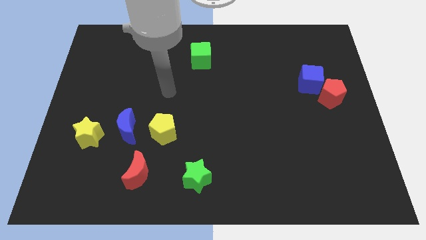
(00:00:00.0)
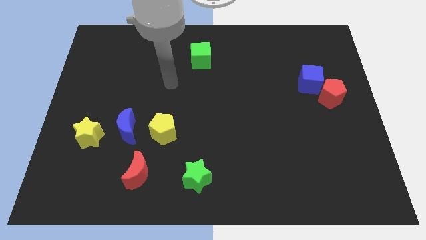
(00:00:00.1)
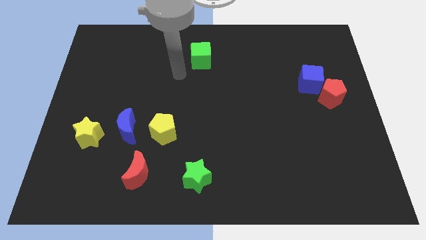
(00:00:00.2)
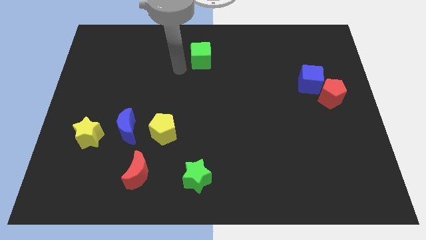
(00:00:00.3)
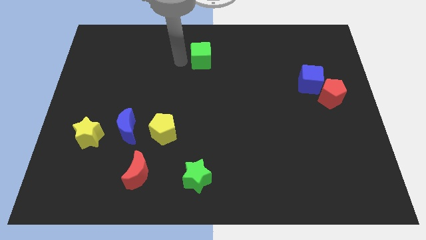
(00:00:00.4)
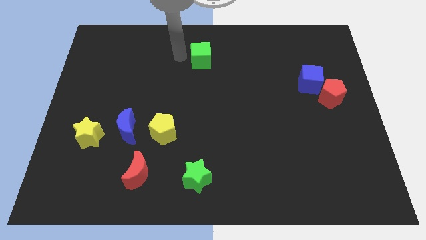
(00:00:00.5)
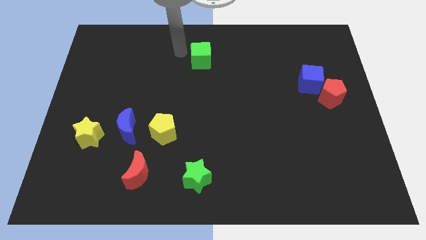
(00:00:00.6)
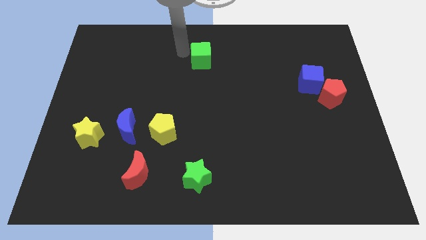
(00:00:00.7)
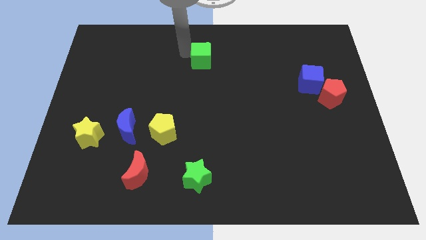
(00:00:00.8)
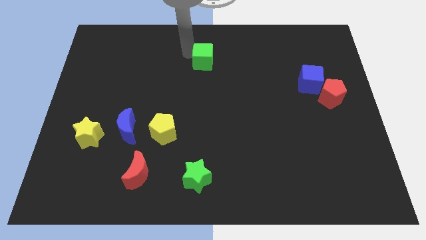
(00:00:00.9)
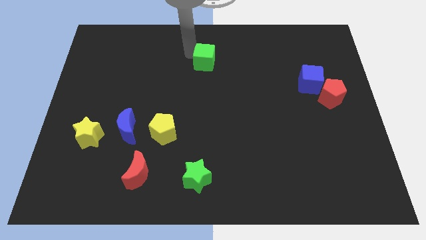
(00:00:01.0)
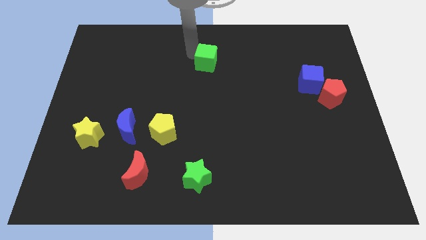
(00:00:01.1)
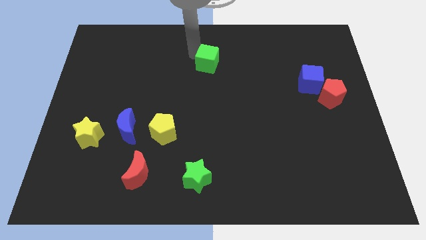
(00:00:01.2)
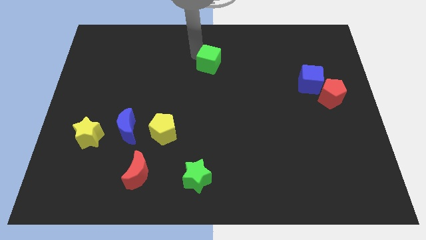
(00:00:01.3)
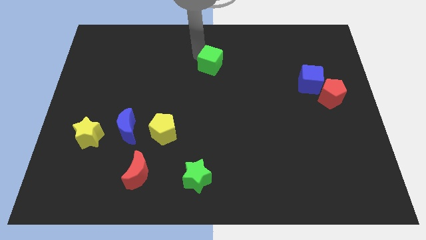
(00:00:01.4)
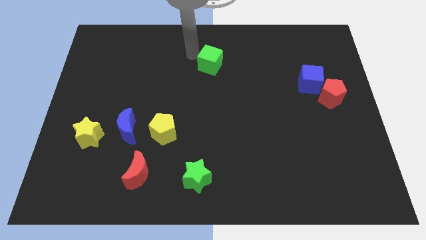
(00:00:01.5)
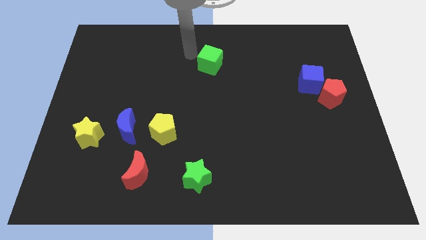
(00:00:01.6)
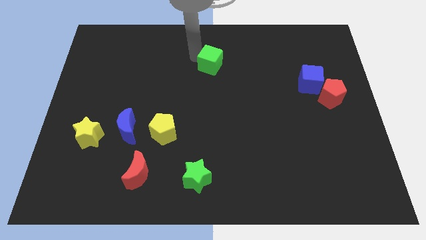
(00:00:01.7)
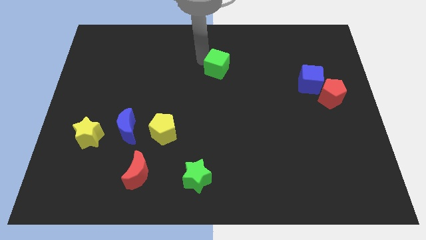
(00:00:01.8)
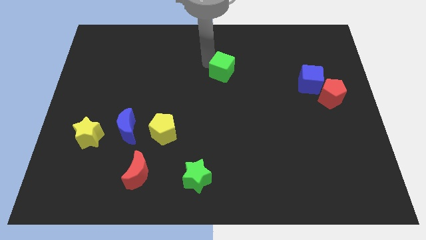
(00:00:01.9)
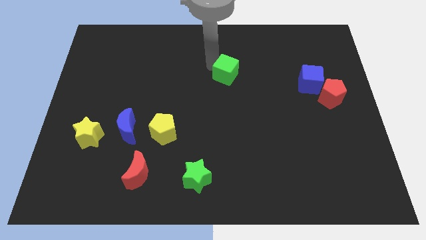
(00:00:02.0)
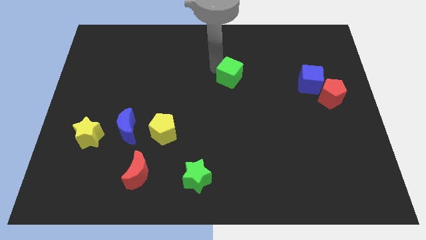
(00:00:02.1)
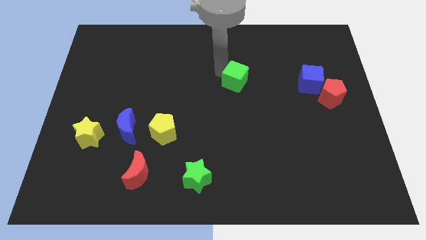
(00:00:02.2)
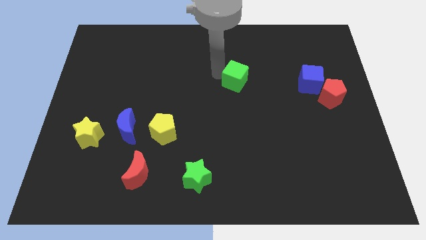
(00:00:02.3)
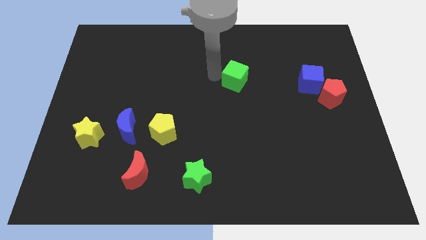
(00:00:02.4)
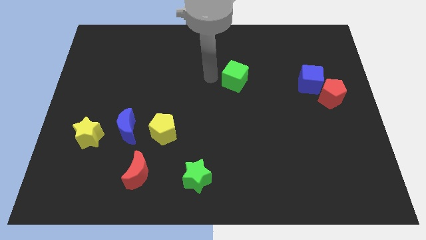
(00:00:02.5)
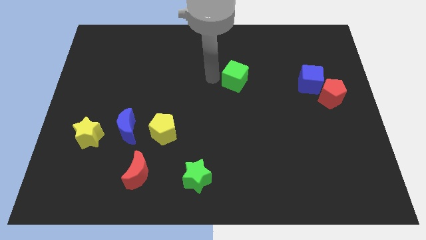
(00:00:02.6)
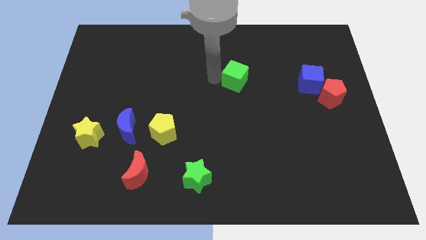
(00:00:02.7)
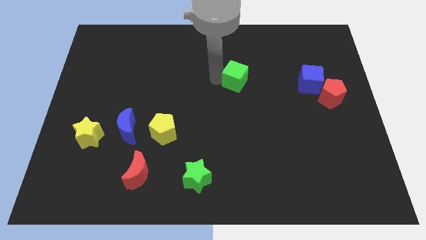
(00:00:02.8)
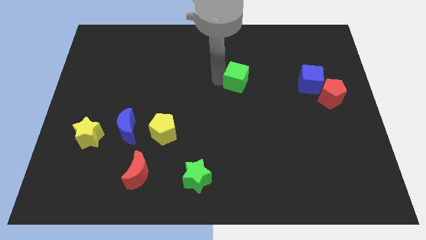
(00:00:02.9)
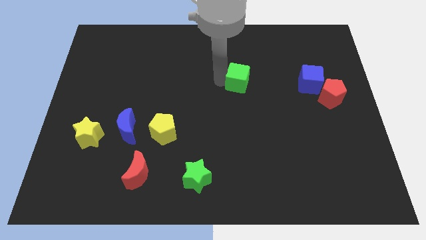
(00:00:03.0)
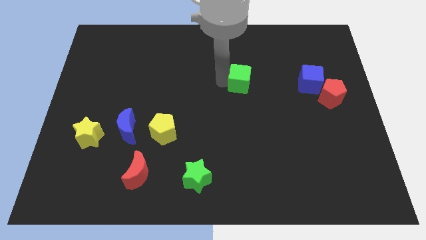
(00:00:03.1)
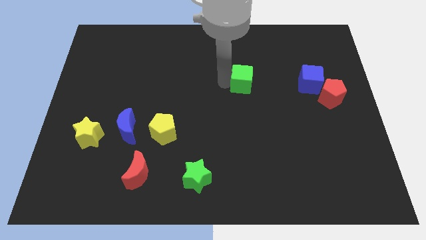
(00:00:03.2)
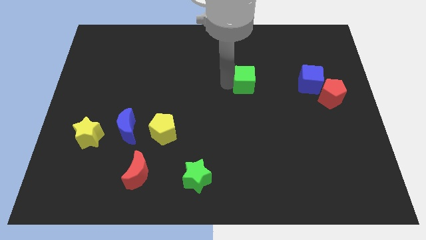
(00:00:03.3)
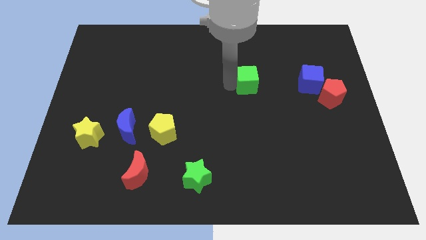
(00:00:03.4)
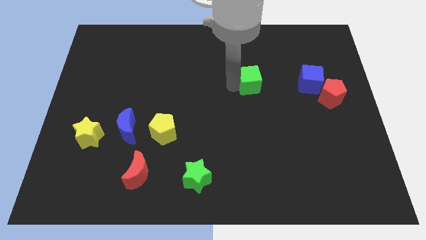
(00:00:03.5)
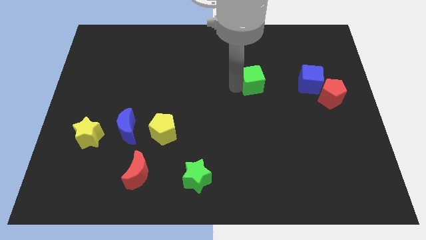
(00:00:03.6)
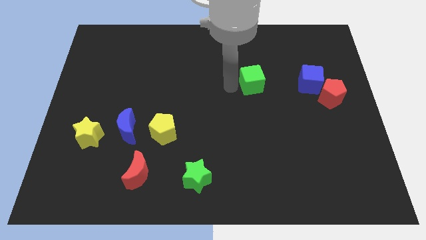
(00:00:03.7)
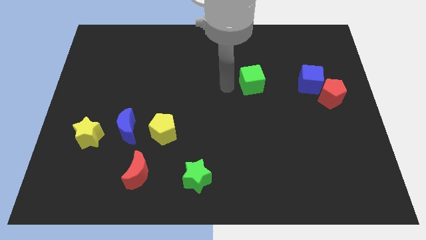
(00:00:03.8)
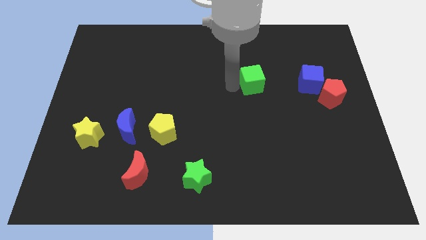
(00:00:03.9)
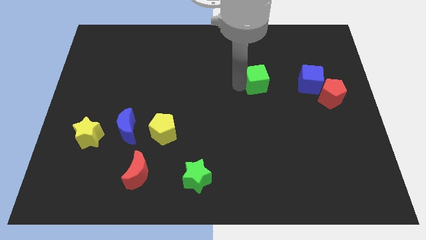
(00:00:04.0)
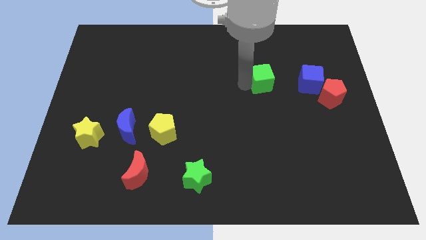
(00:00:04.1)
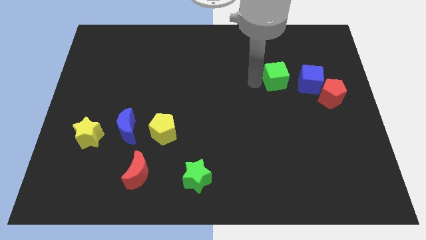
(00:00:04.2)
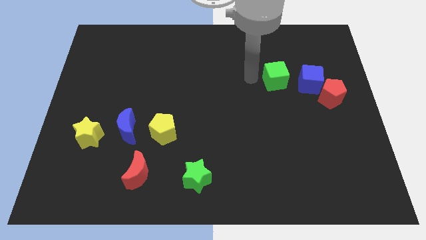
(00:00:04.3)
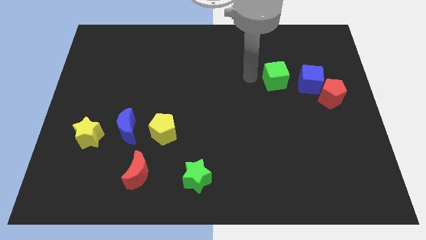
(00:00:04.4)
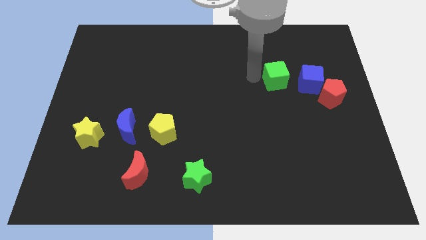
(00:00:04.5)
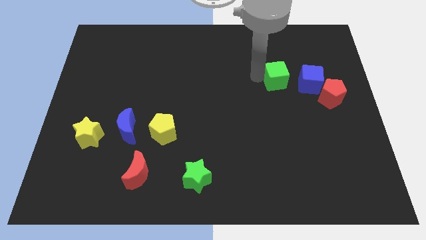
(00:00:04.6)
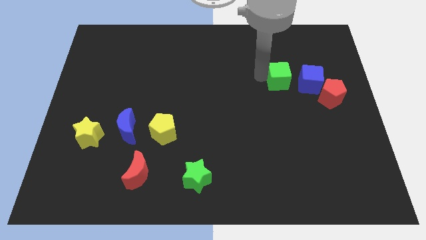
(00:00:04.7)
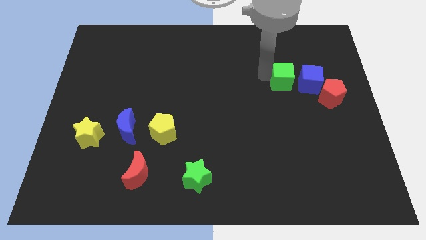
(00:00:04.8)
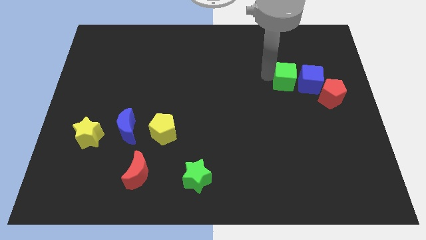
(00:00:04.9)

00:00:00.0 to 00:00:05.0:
move the green cube close to the blue cube

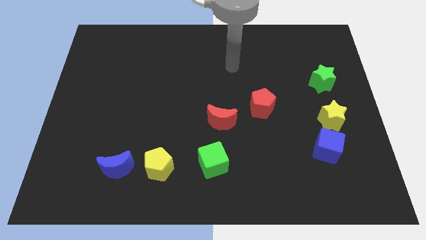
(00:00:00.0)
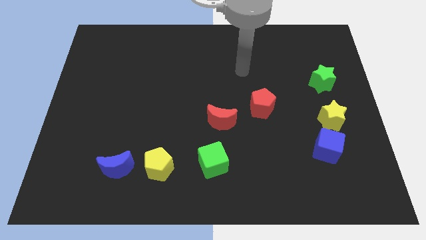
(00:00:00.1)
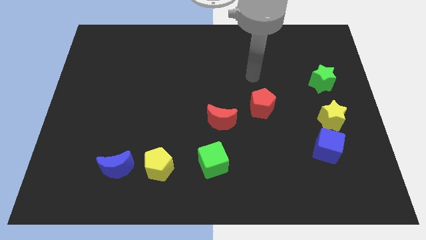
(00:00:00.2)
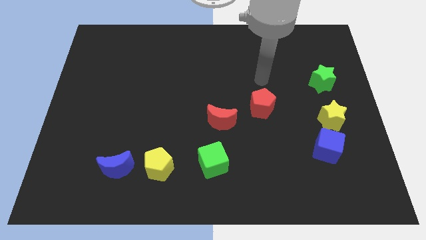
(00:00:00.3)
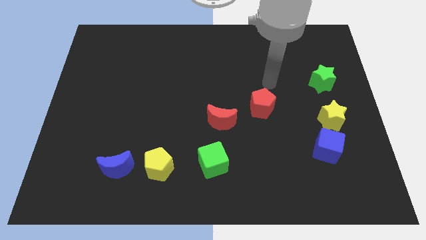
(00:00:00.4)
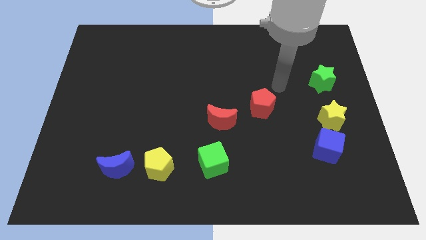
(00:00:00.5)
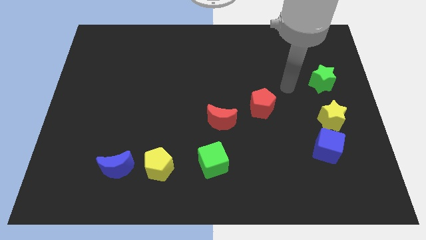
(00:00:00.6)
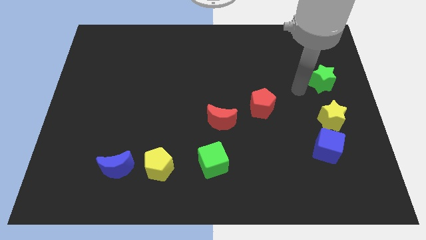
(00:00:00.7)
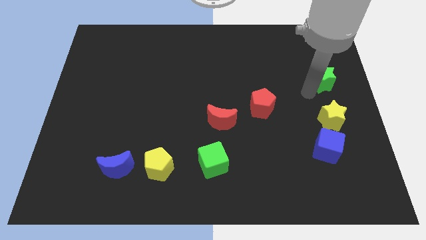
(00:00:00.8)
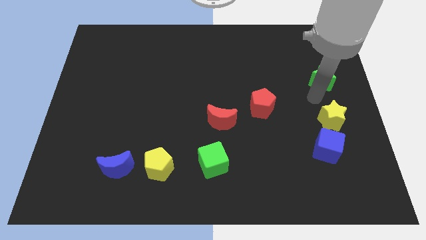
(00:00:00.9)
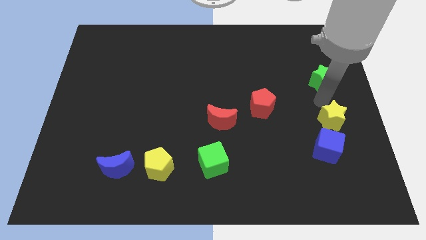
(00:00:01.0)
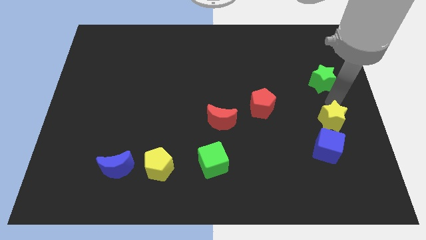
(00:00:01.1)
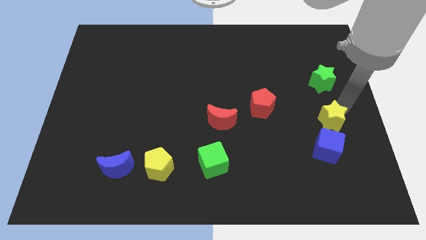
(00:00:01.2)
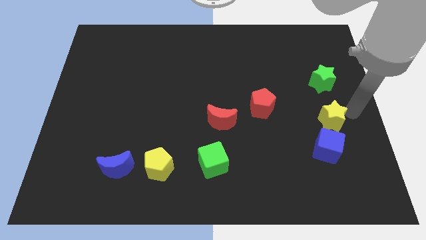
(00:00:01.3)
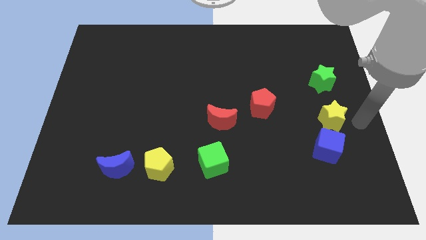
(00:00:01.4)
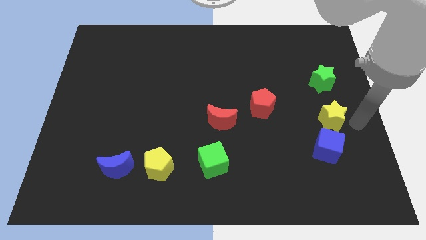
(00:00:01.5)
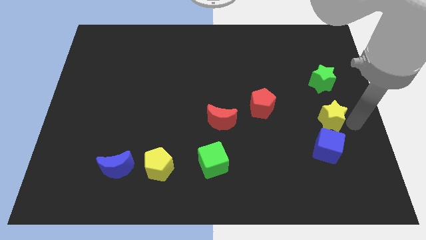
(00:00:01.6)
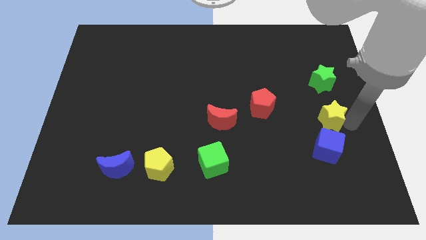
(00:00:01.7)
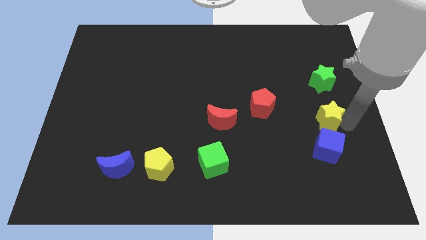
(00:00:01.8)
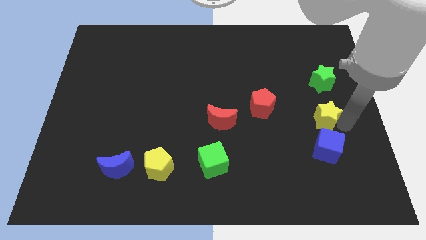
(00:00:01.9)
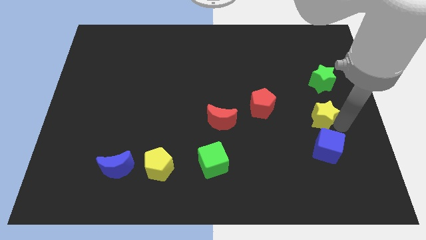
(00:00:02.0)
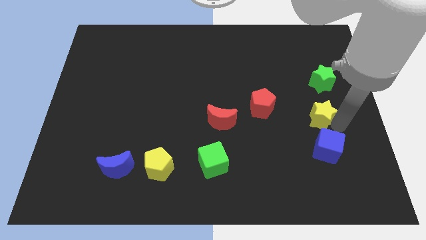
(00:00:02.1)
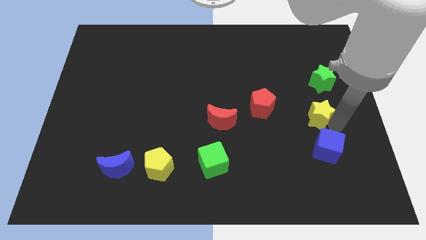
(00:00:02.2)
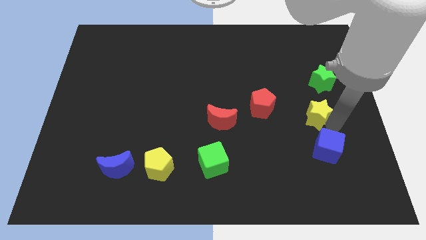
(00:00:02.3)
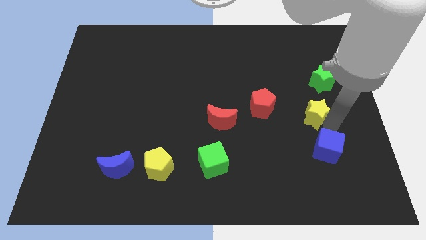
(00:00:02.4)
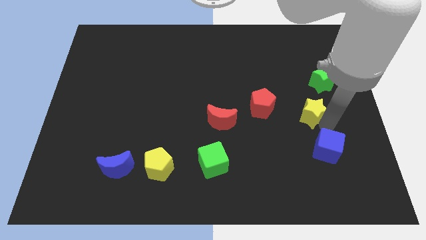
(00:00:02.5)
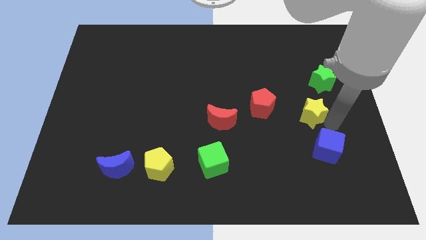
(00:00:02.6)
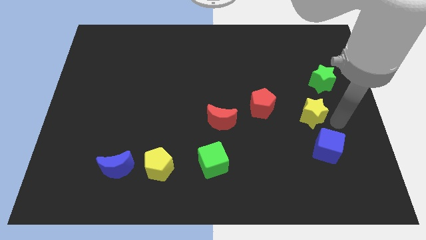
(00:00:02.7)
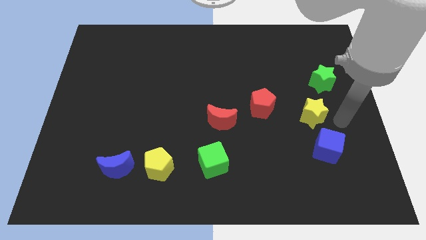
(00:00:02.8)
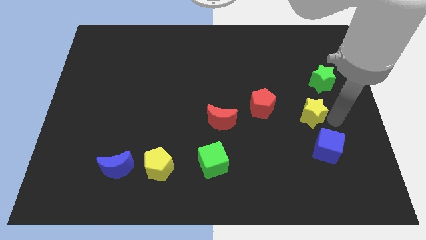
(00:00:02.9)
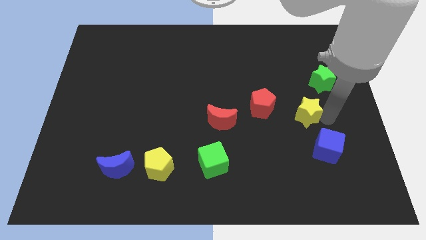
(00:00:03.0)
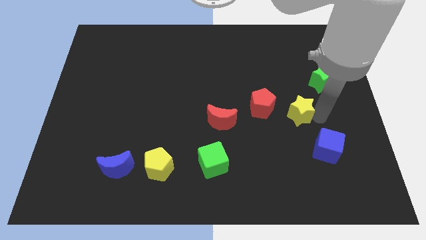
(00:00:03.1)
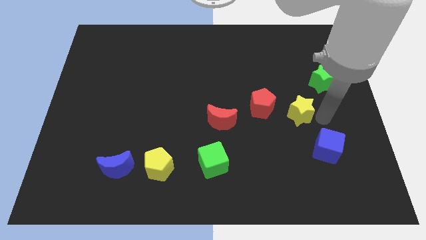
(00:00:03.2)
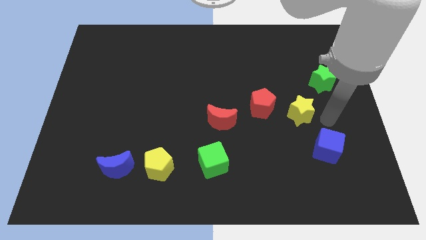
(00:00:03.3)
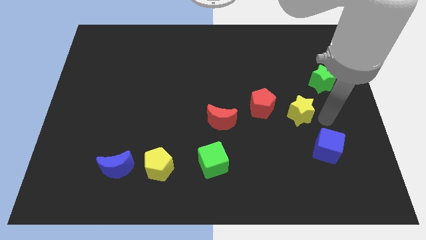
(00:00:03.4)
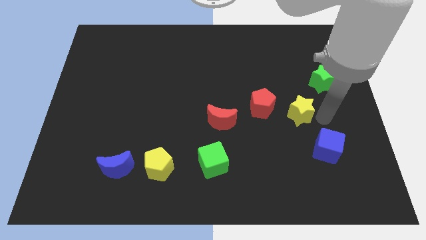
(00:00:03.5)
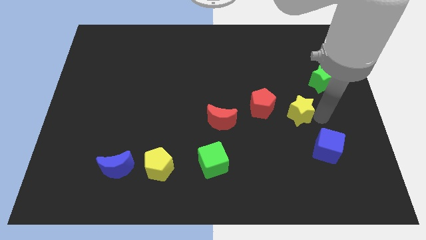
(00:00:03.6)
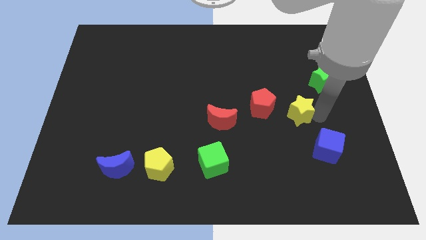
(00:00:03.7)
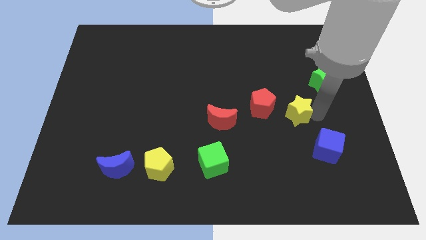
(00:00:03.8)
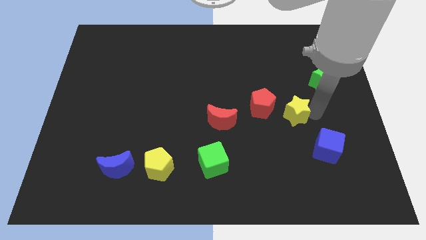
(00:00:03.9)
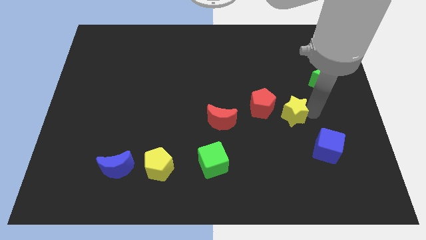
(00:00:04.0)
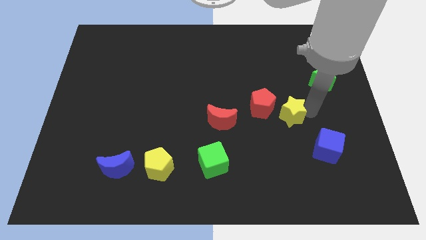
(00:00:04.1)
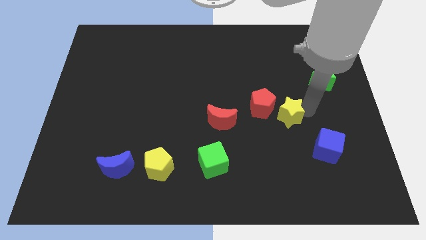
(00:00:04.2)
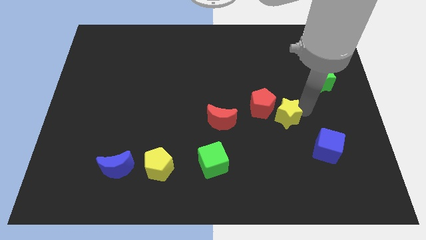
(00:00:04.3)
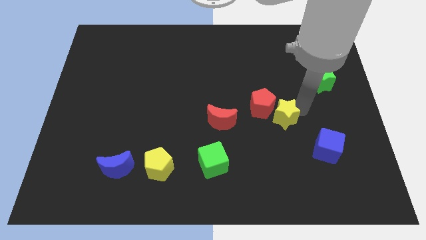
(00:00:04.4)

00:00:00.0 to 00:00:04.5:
move the yellow star close to the red pentagon
